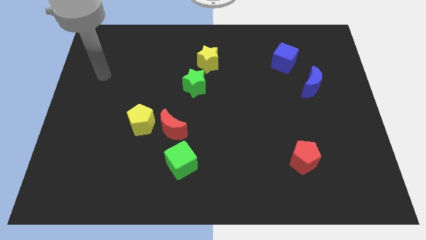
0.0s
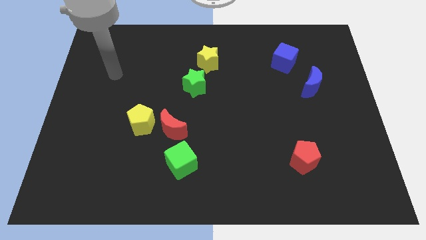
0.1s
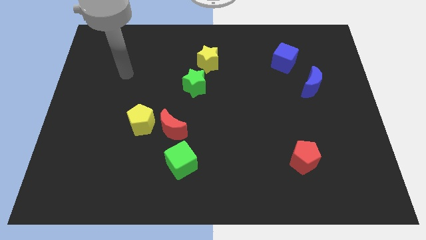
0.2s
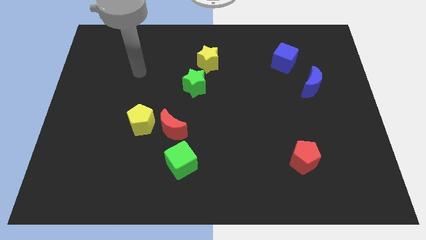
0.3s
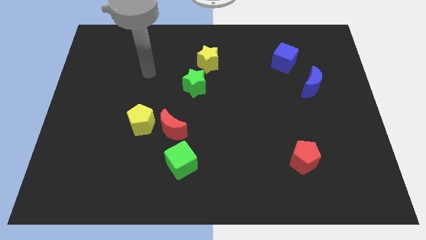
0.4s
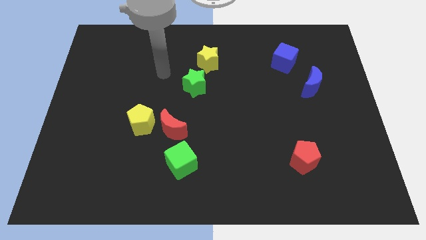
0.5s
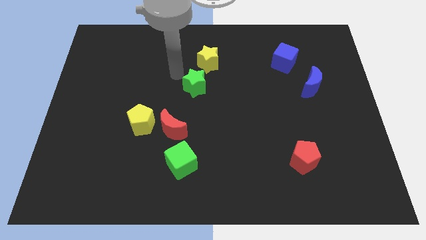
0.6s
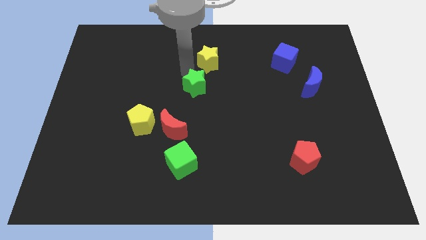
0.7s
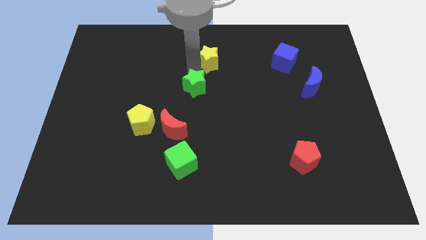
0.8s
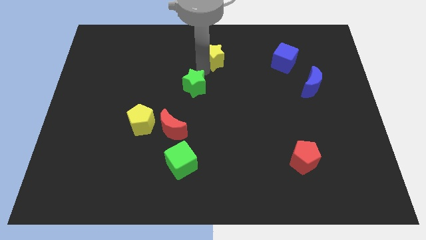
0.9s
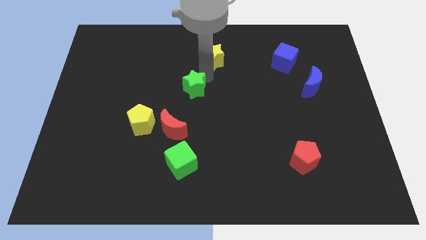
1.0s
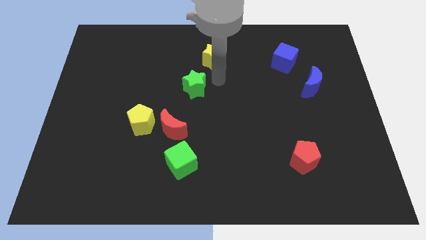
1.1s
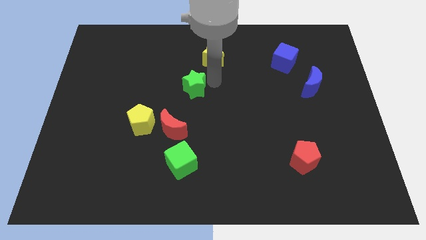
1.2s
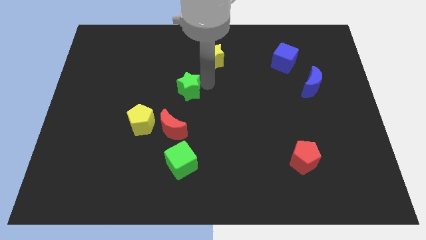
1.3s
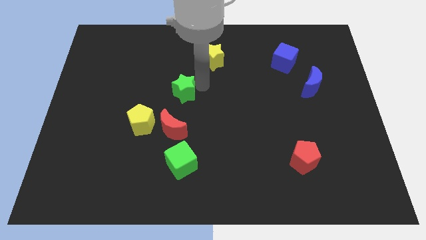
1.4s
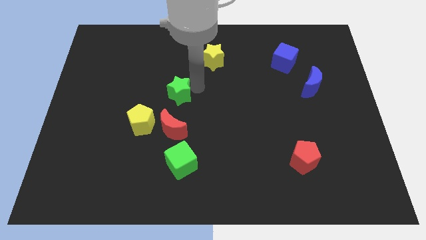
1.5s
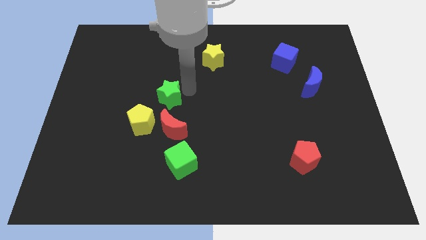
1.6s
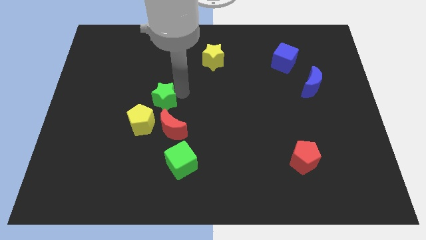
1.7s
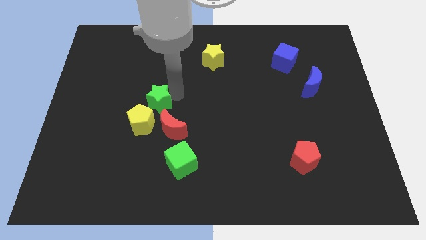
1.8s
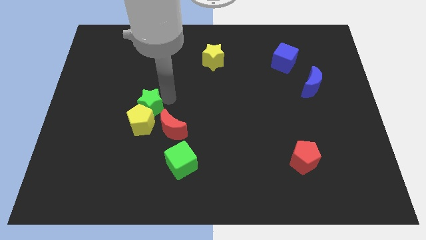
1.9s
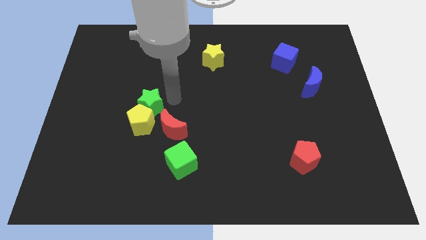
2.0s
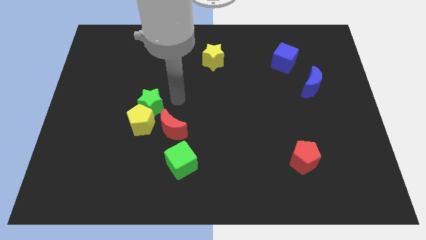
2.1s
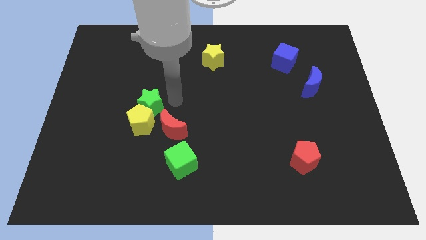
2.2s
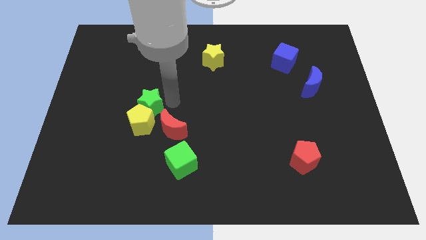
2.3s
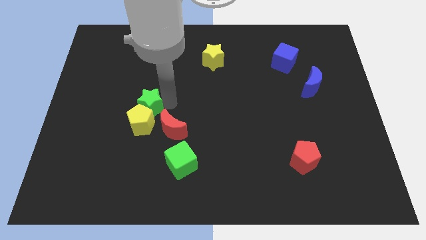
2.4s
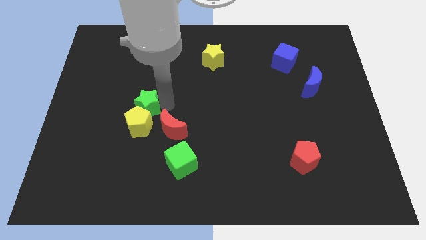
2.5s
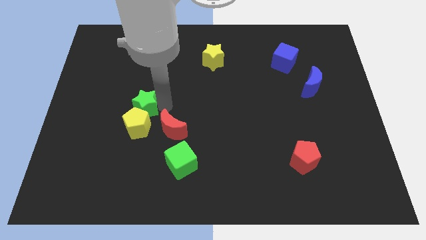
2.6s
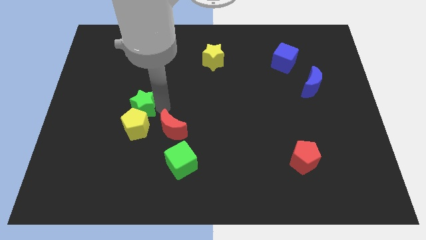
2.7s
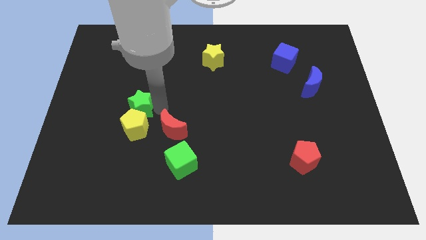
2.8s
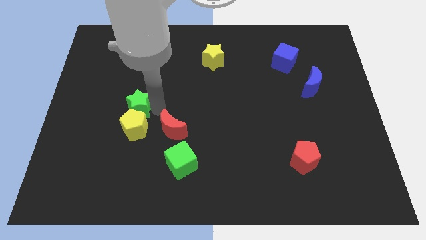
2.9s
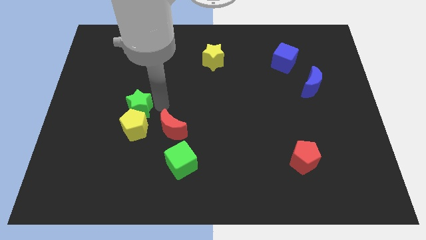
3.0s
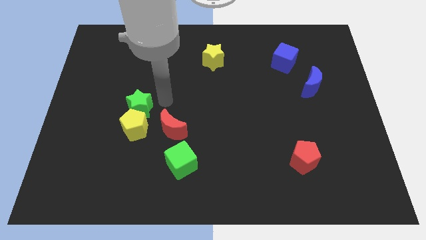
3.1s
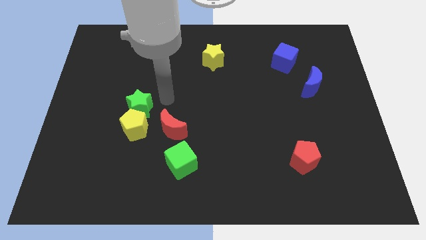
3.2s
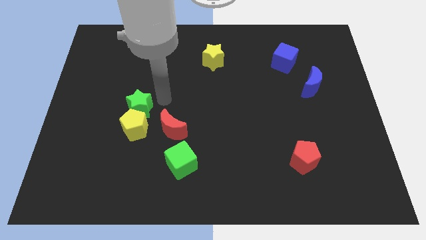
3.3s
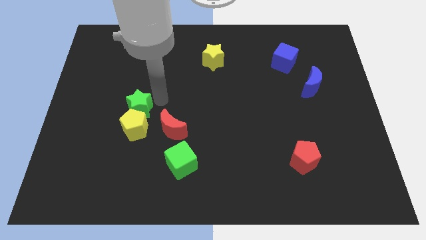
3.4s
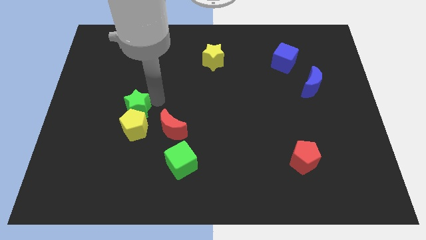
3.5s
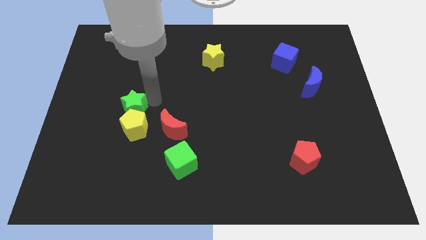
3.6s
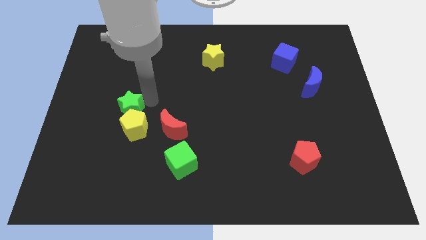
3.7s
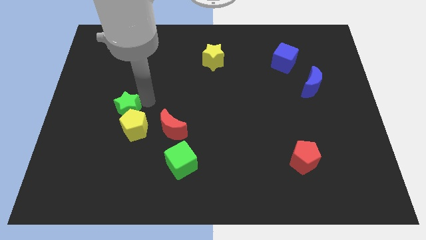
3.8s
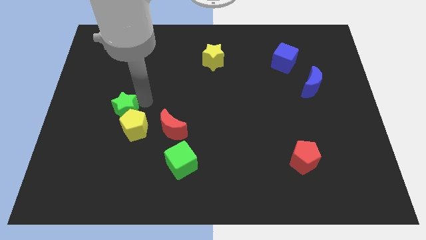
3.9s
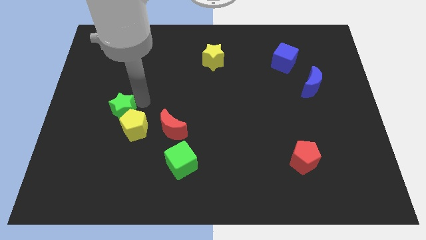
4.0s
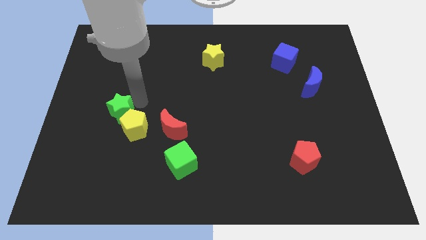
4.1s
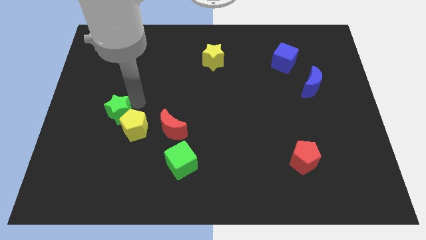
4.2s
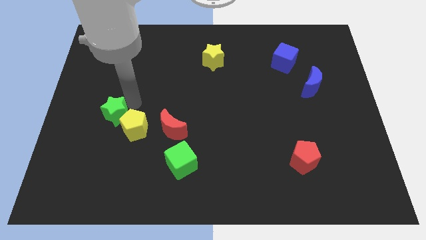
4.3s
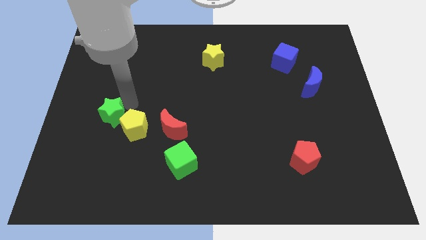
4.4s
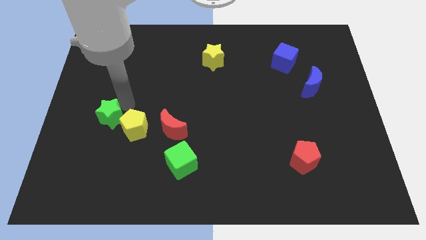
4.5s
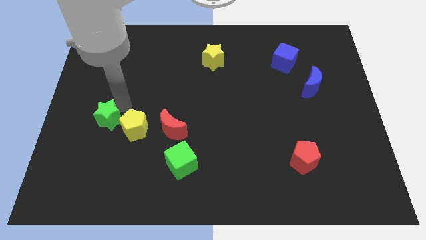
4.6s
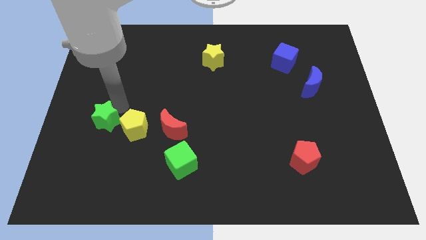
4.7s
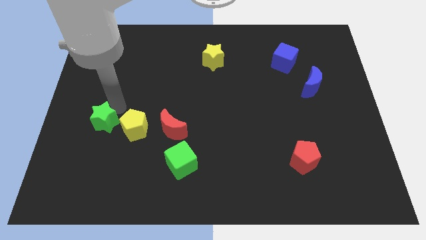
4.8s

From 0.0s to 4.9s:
move the green star downwards and to the left

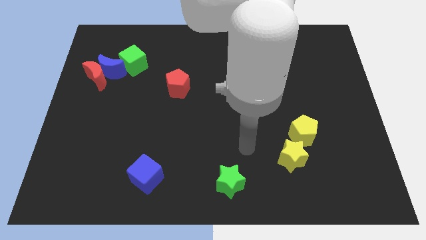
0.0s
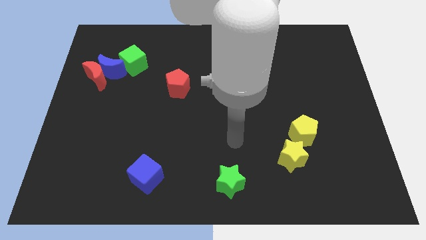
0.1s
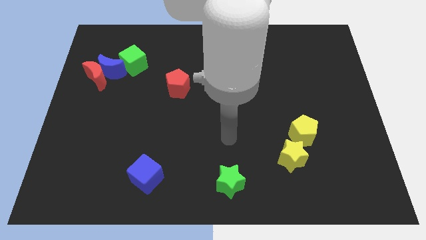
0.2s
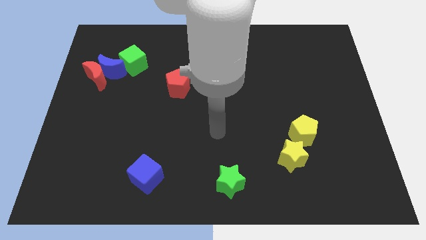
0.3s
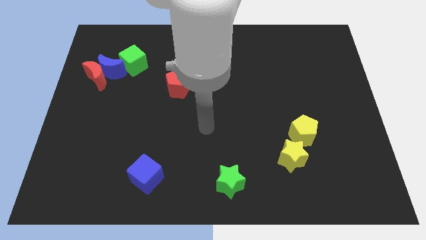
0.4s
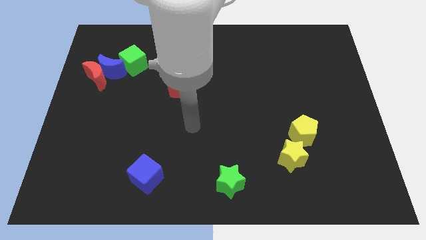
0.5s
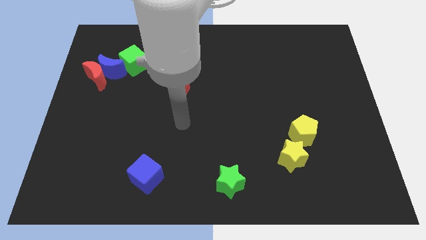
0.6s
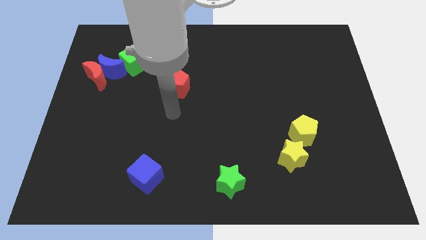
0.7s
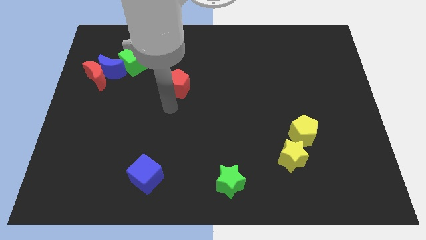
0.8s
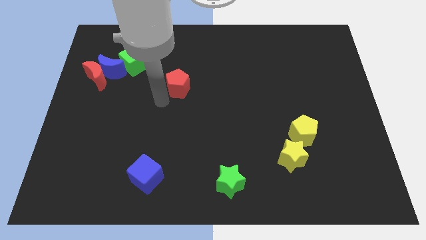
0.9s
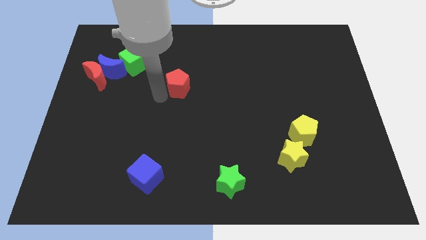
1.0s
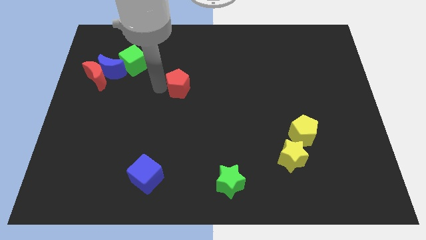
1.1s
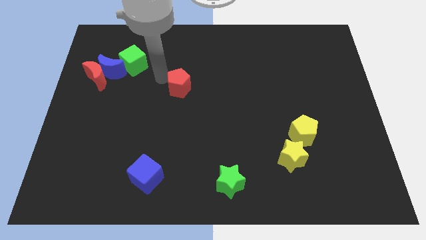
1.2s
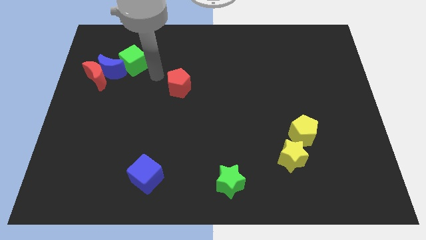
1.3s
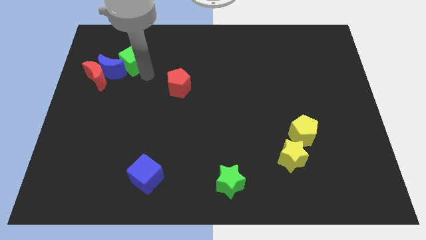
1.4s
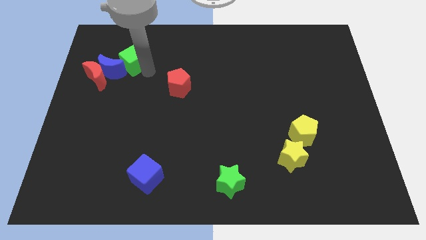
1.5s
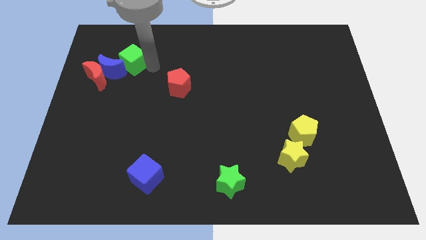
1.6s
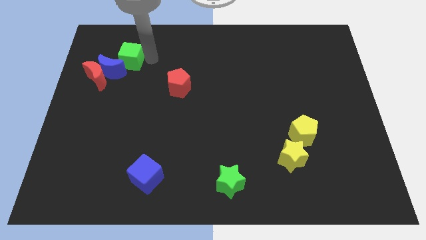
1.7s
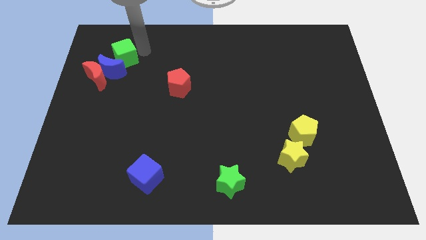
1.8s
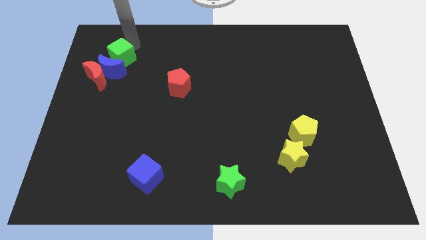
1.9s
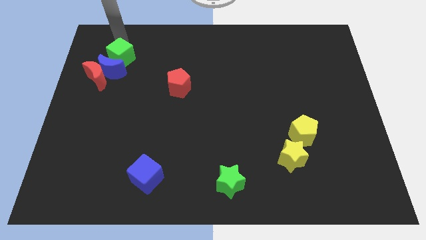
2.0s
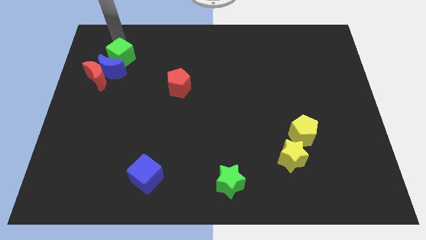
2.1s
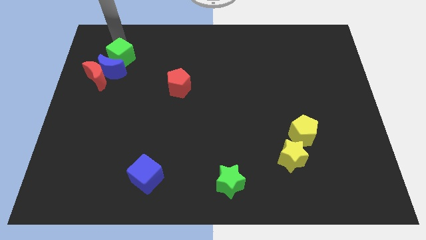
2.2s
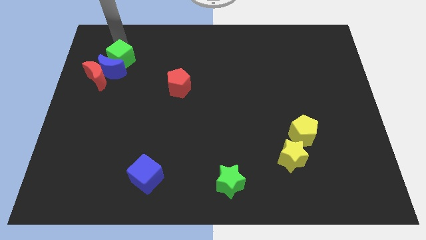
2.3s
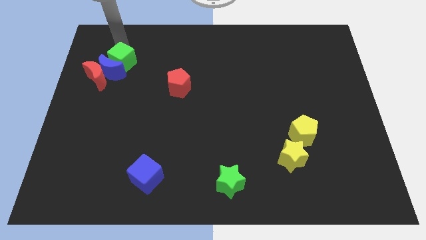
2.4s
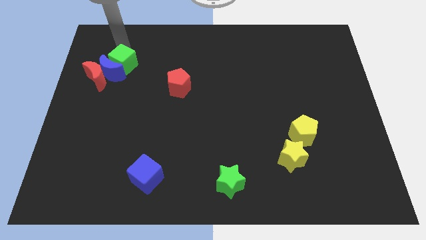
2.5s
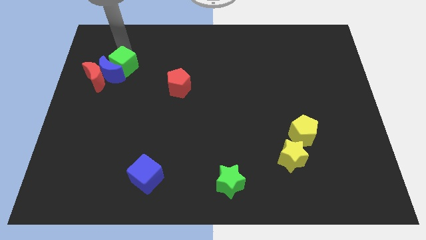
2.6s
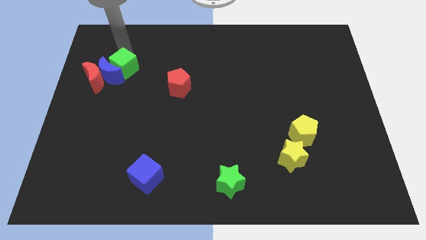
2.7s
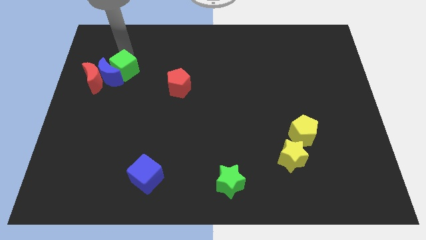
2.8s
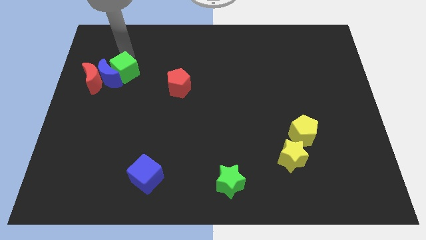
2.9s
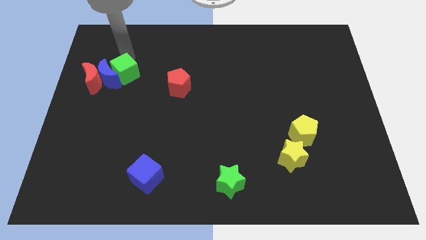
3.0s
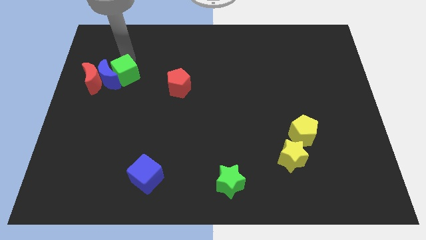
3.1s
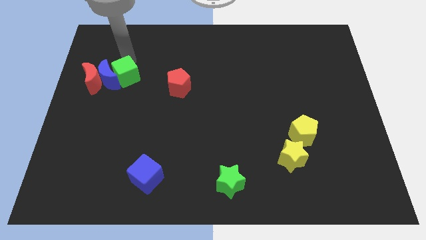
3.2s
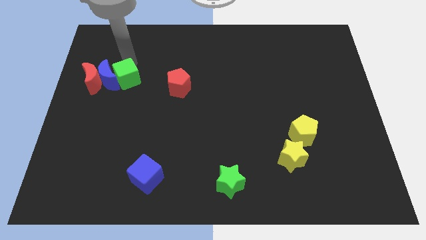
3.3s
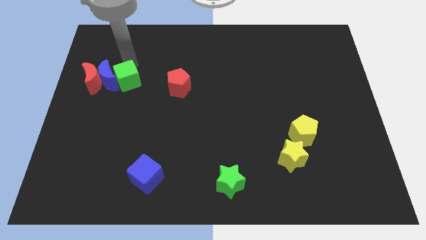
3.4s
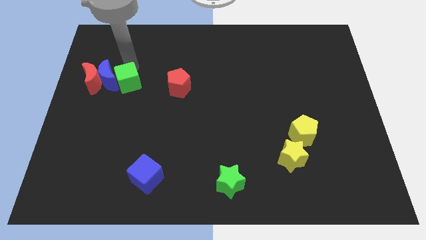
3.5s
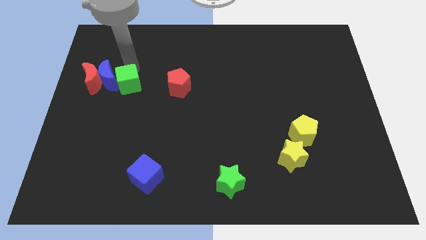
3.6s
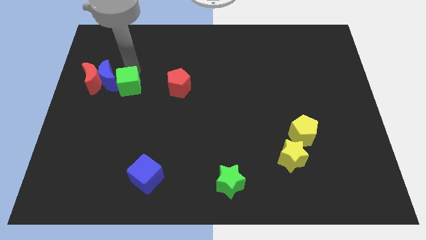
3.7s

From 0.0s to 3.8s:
slightly slide the green cube downwards
